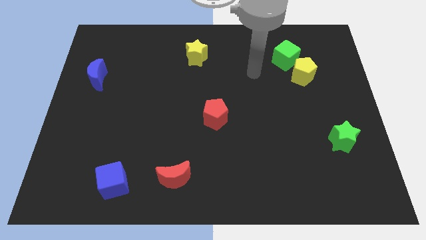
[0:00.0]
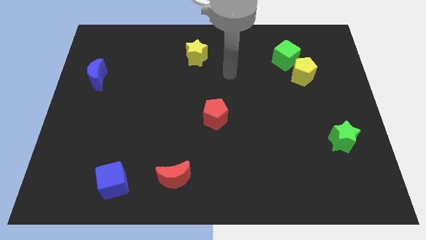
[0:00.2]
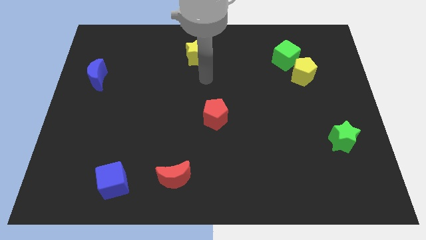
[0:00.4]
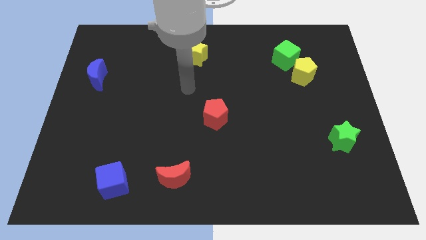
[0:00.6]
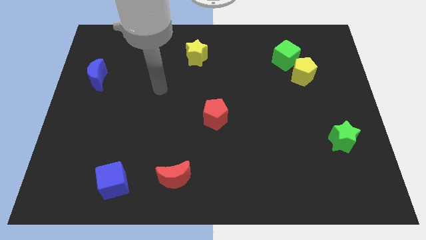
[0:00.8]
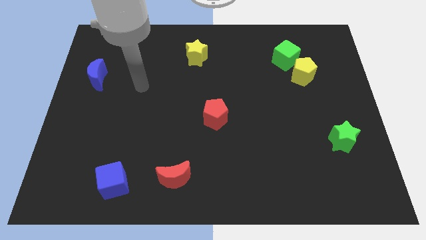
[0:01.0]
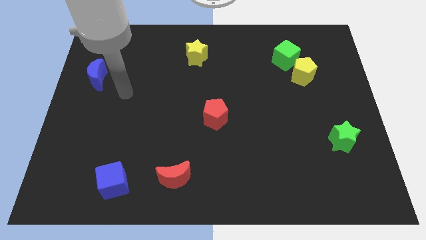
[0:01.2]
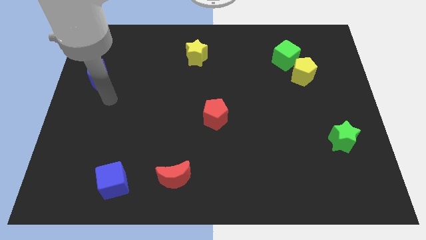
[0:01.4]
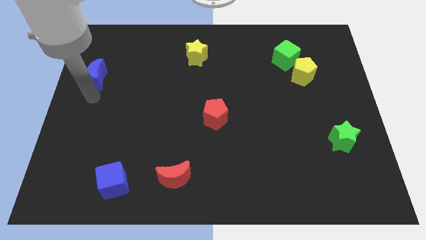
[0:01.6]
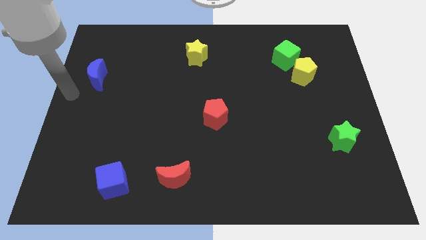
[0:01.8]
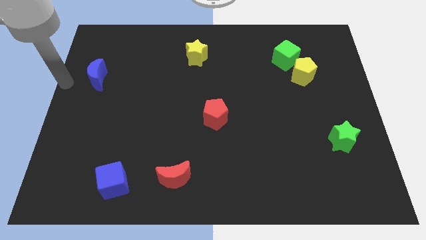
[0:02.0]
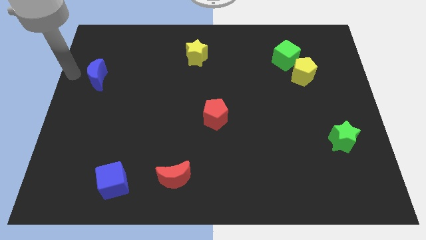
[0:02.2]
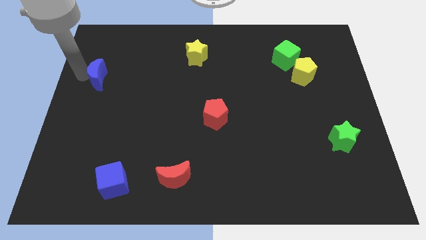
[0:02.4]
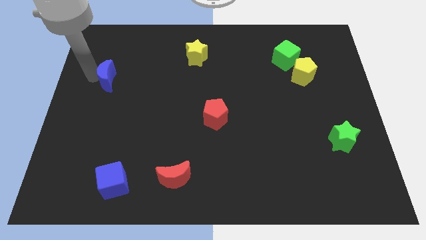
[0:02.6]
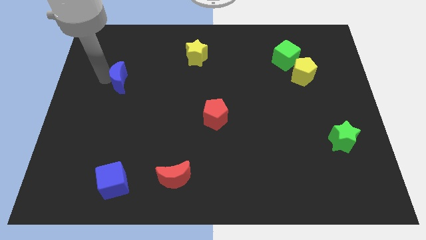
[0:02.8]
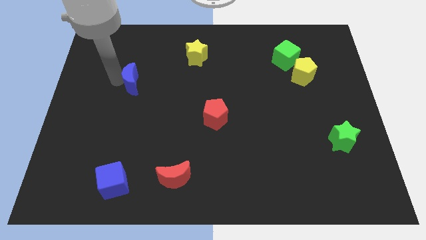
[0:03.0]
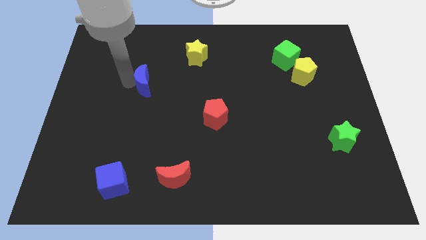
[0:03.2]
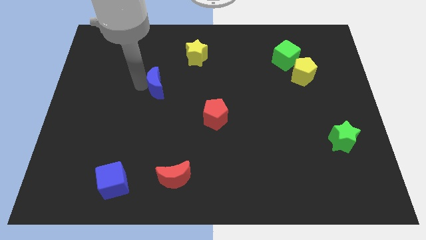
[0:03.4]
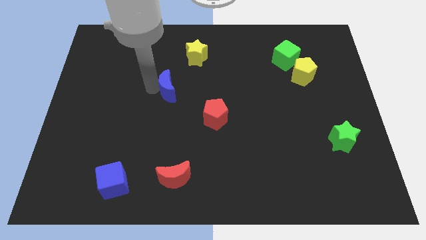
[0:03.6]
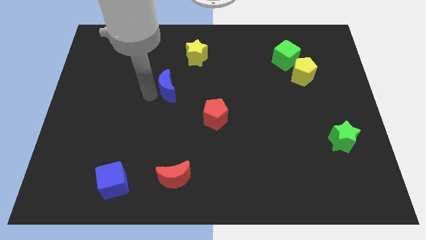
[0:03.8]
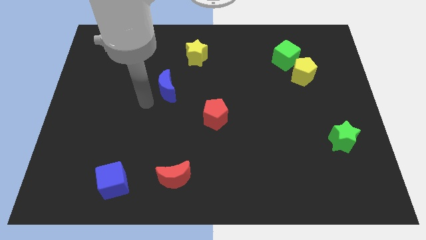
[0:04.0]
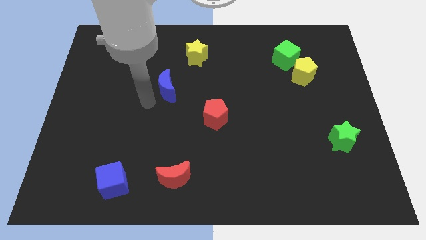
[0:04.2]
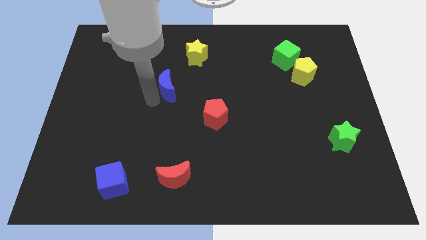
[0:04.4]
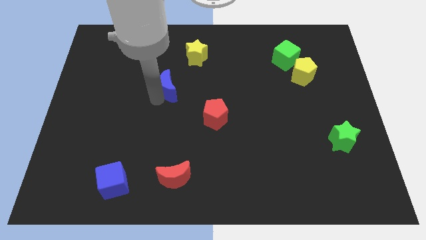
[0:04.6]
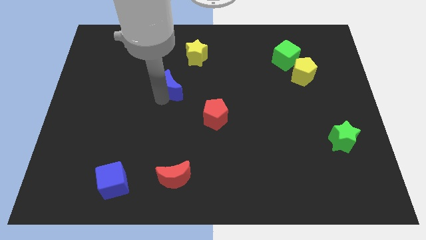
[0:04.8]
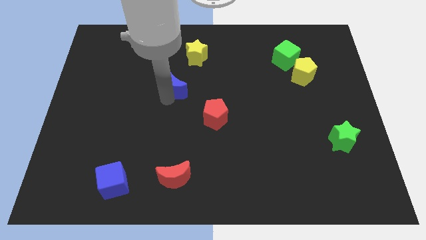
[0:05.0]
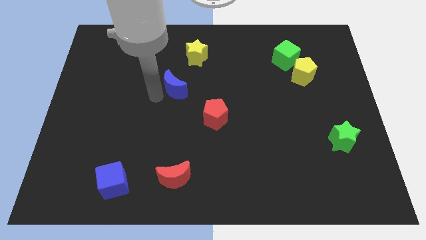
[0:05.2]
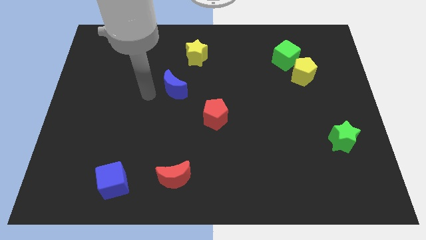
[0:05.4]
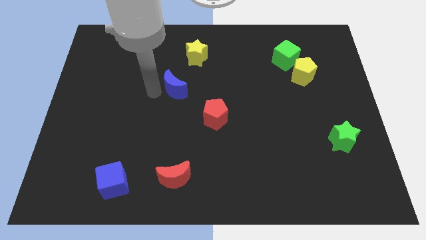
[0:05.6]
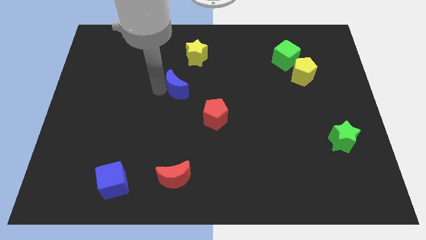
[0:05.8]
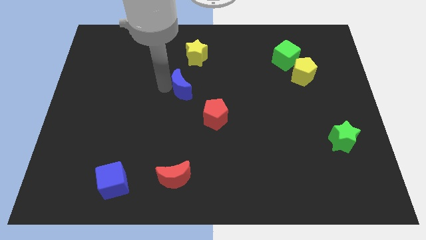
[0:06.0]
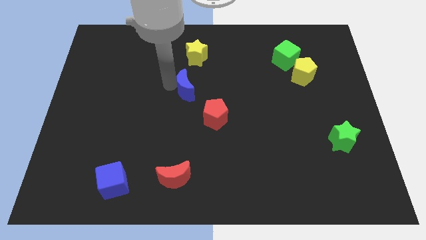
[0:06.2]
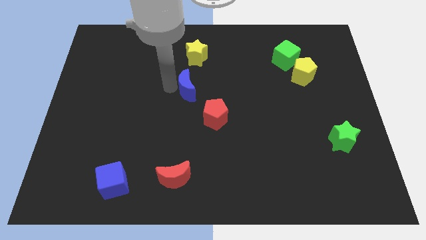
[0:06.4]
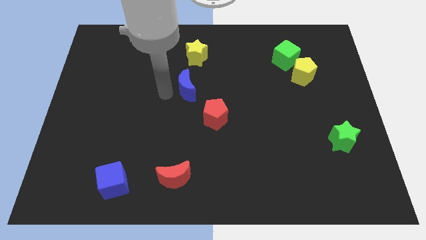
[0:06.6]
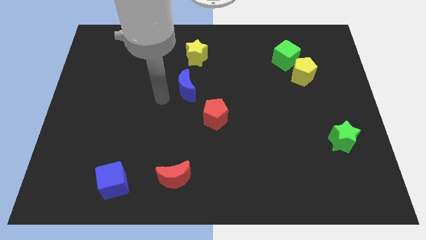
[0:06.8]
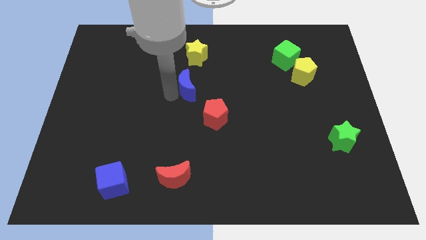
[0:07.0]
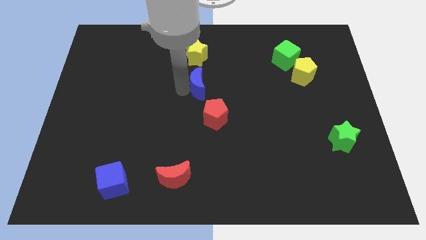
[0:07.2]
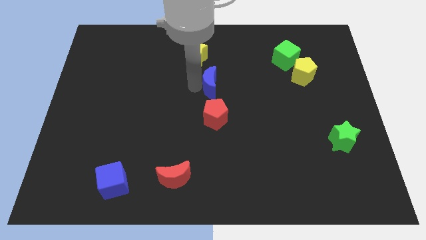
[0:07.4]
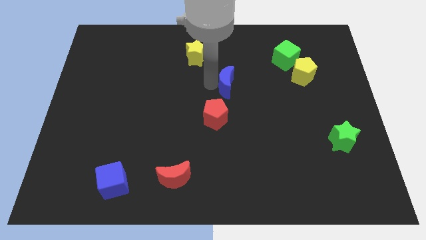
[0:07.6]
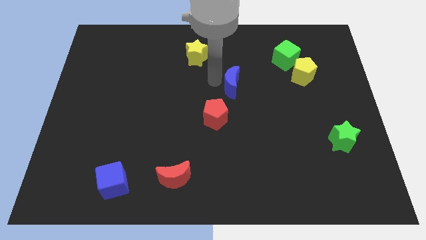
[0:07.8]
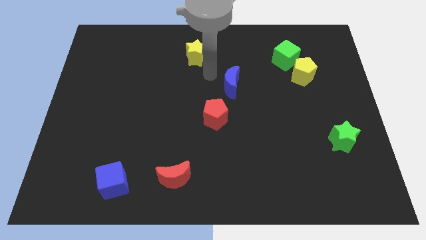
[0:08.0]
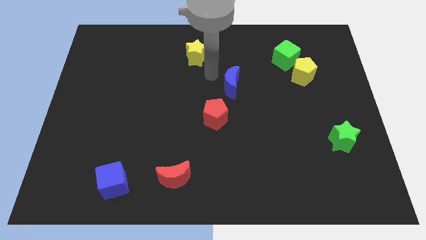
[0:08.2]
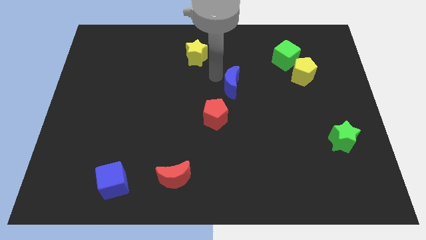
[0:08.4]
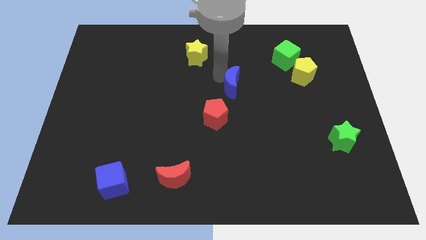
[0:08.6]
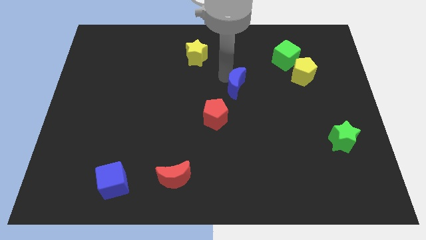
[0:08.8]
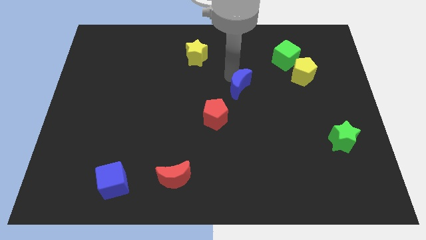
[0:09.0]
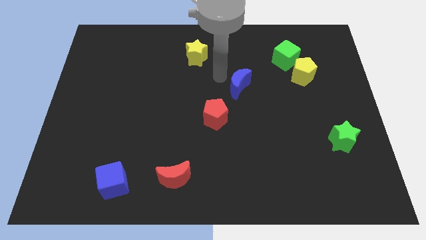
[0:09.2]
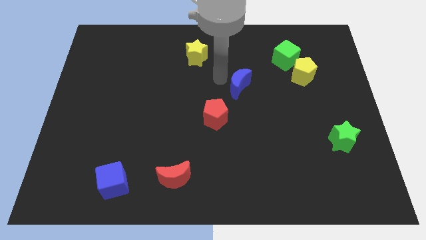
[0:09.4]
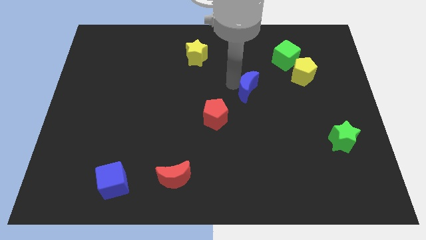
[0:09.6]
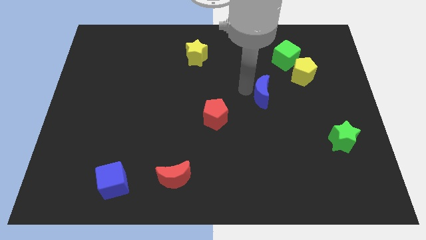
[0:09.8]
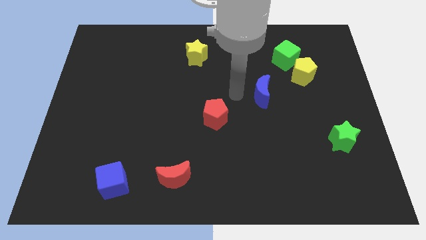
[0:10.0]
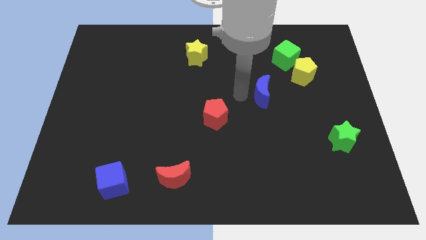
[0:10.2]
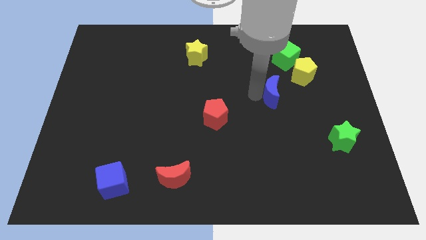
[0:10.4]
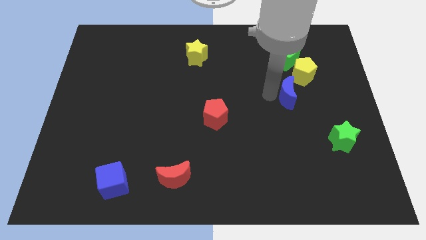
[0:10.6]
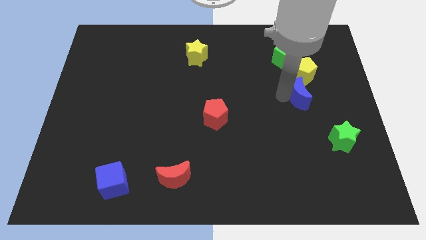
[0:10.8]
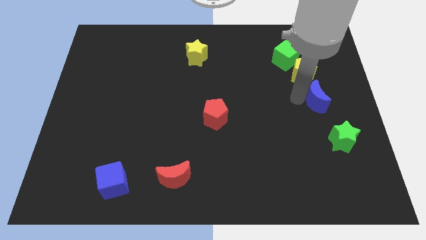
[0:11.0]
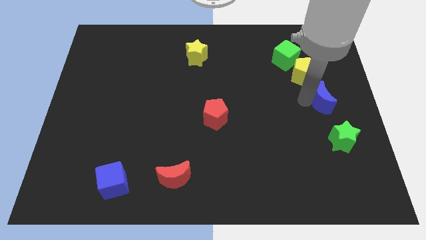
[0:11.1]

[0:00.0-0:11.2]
put the blue moon to the center right

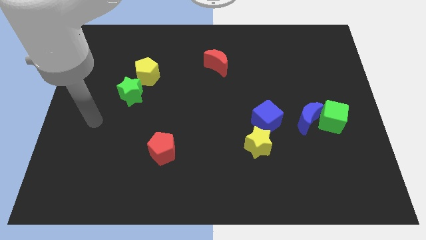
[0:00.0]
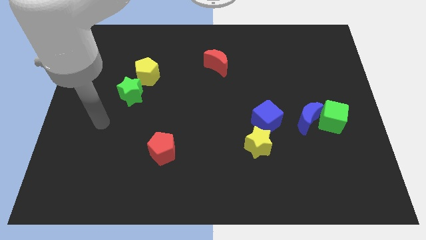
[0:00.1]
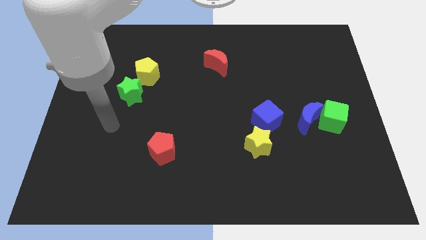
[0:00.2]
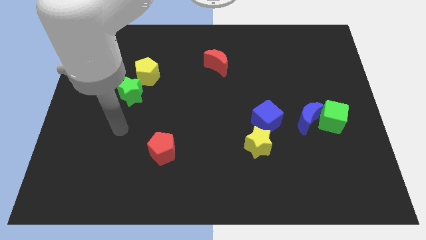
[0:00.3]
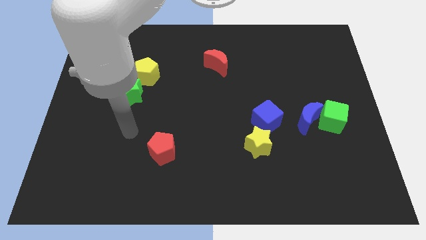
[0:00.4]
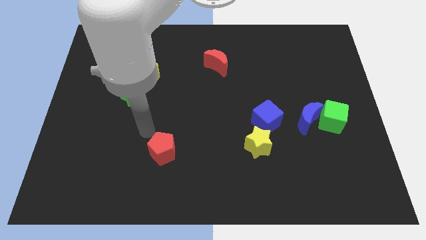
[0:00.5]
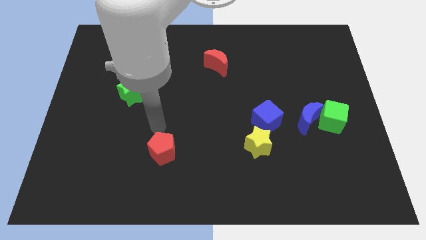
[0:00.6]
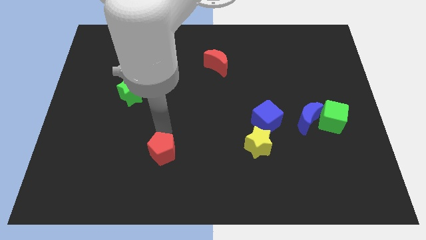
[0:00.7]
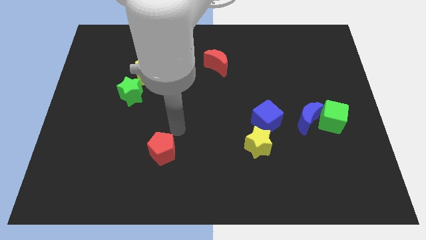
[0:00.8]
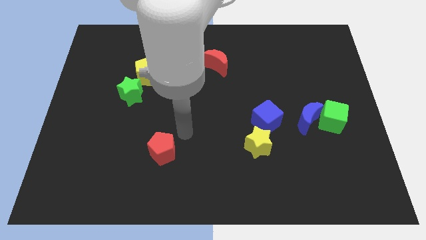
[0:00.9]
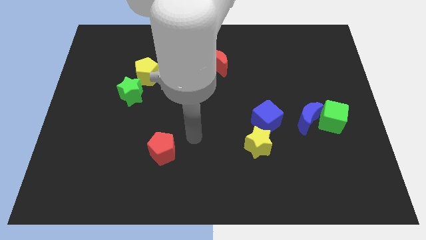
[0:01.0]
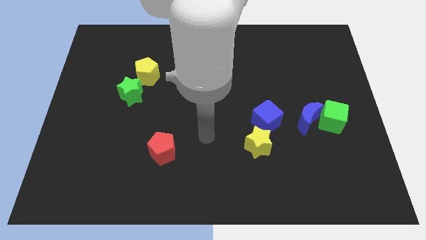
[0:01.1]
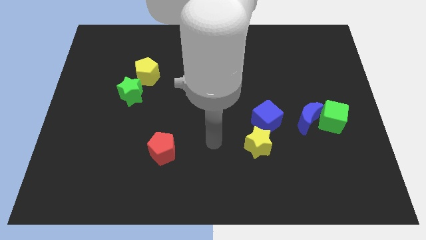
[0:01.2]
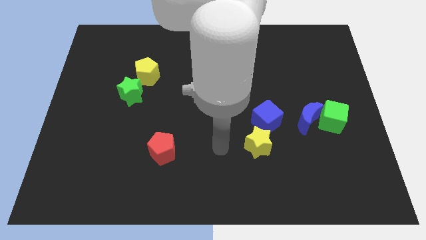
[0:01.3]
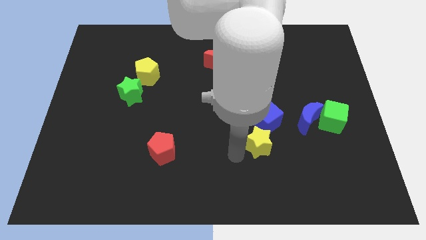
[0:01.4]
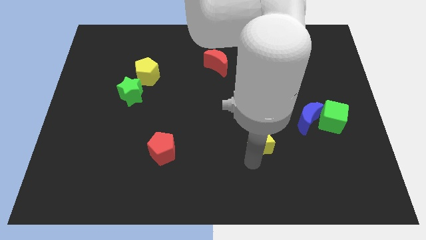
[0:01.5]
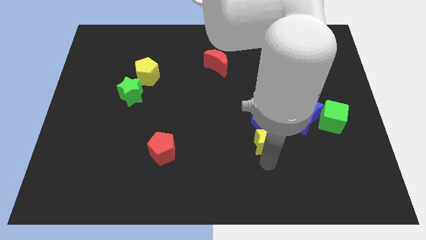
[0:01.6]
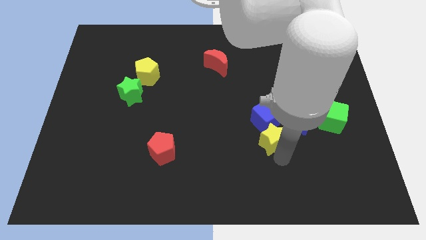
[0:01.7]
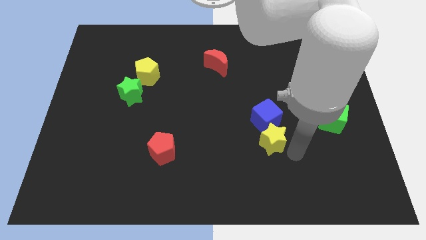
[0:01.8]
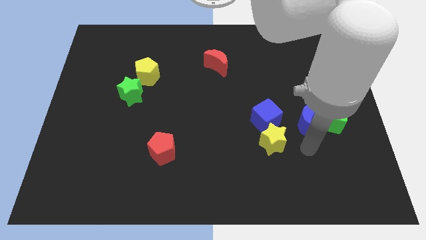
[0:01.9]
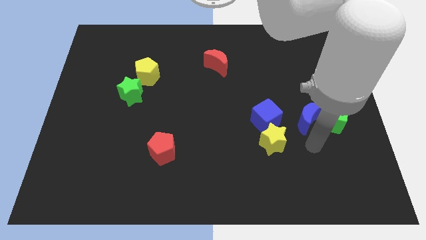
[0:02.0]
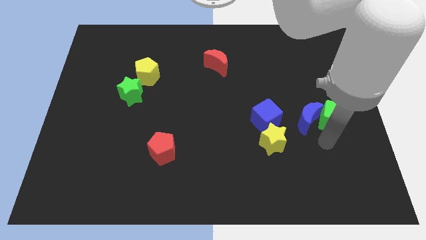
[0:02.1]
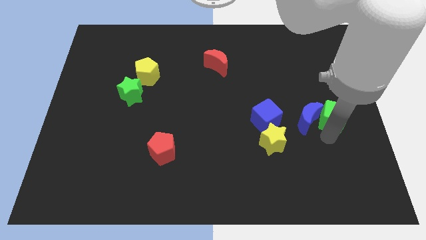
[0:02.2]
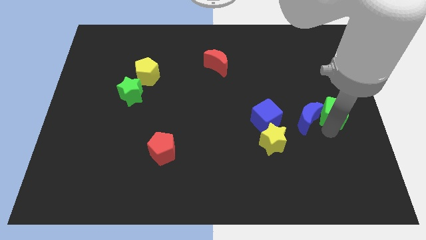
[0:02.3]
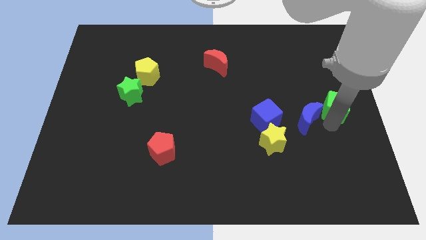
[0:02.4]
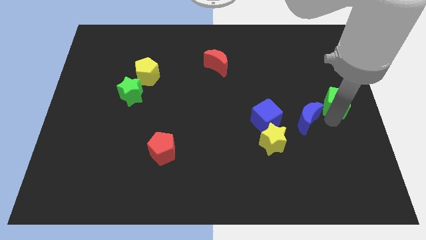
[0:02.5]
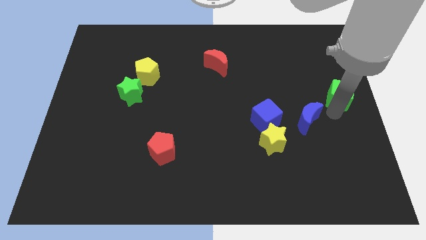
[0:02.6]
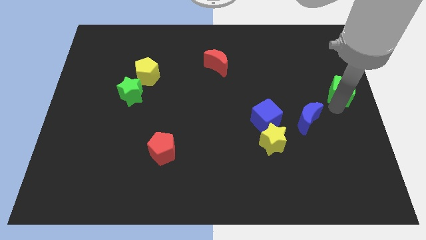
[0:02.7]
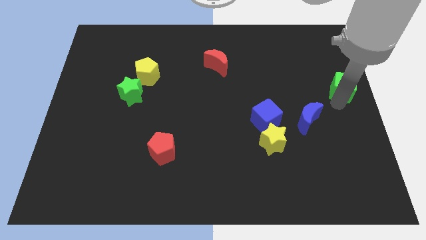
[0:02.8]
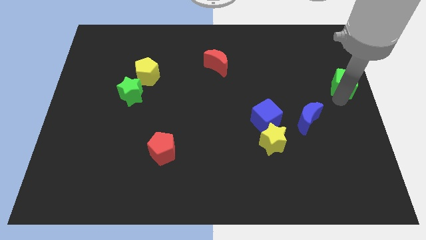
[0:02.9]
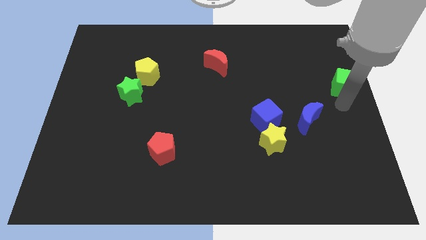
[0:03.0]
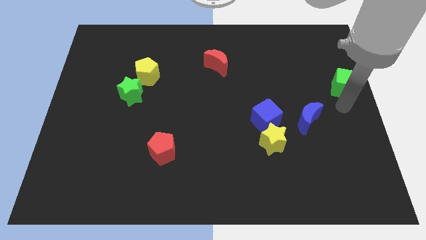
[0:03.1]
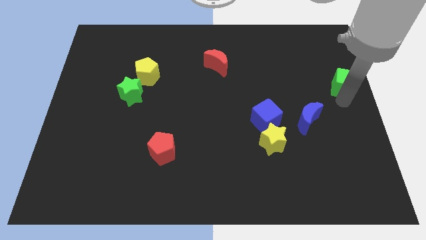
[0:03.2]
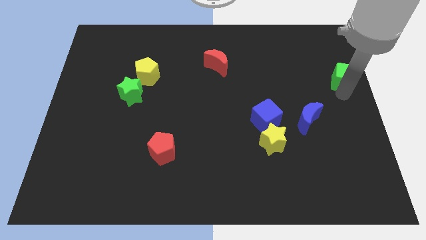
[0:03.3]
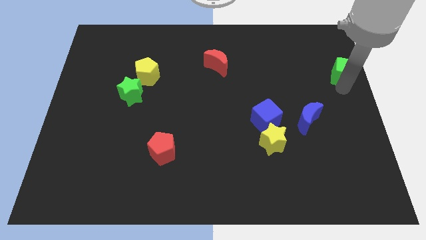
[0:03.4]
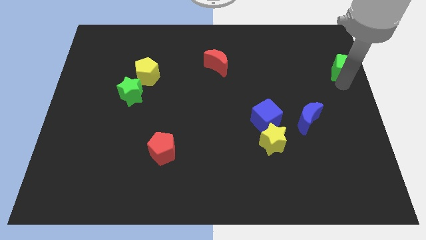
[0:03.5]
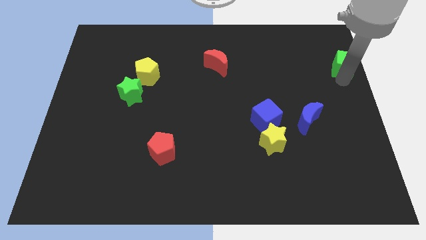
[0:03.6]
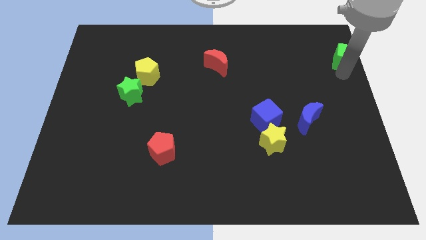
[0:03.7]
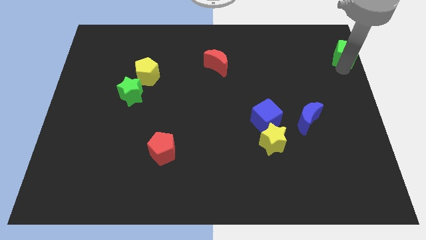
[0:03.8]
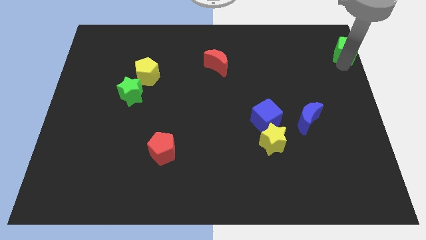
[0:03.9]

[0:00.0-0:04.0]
slide the green cube to the top right
